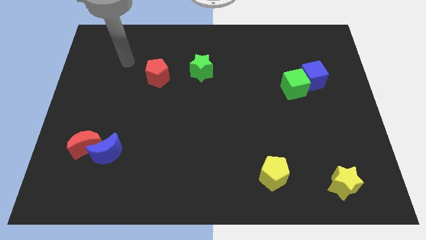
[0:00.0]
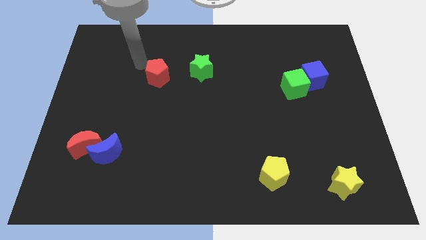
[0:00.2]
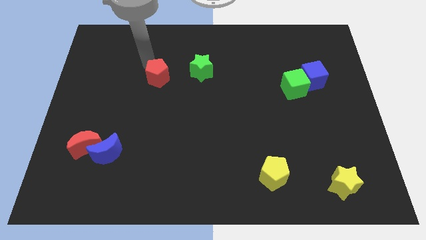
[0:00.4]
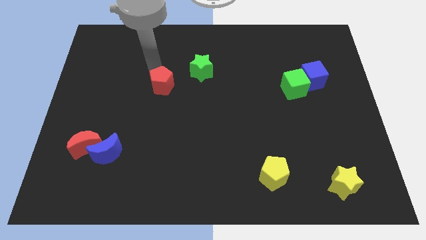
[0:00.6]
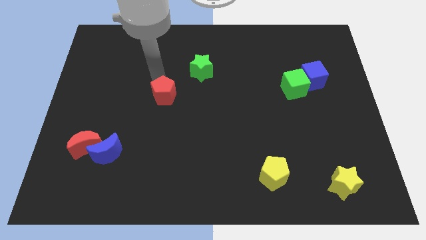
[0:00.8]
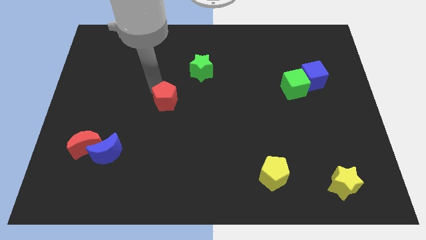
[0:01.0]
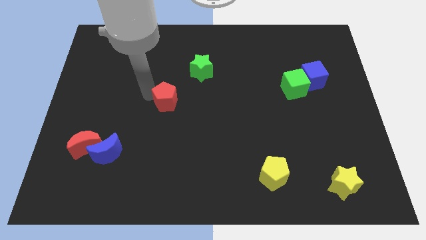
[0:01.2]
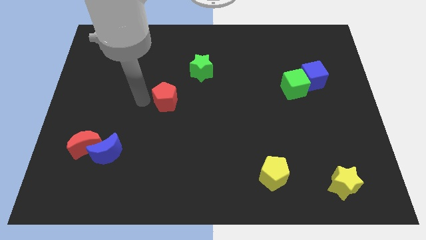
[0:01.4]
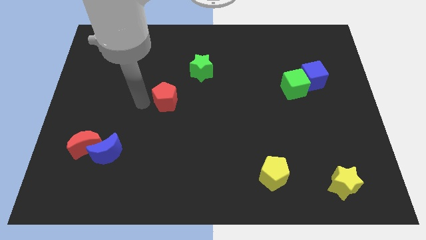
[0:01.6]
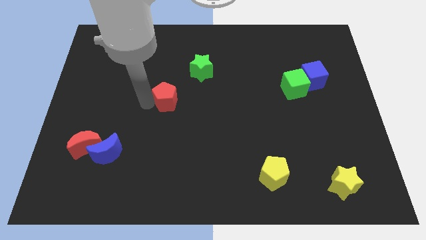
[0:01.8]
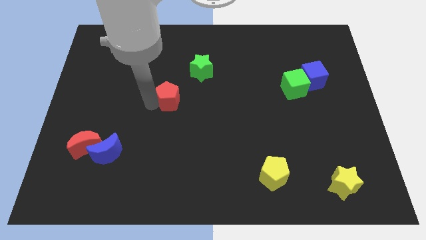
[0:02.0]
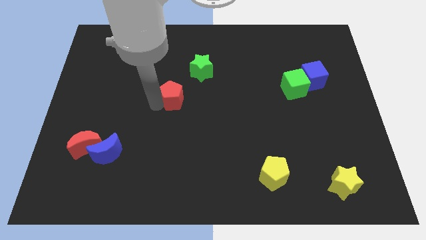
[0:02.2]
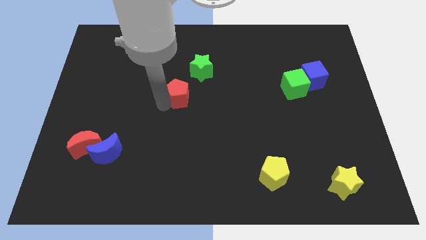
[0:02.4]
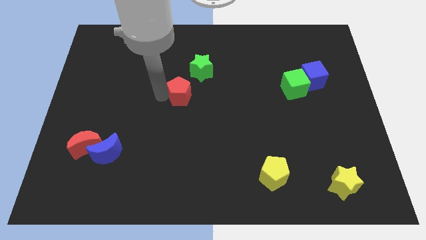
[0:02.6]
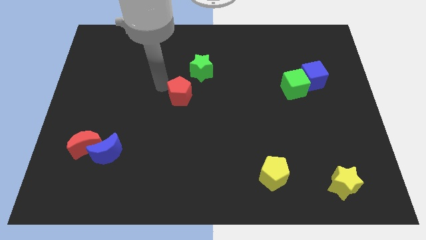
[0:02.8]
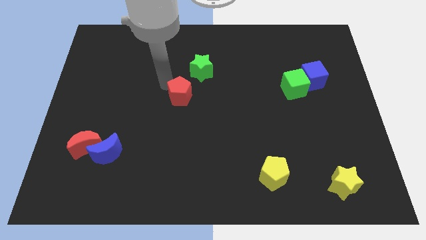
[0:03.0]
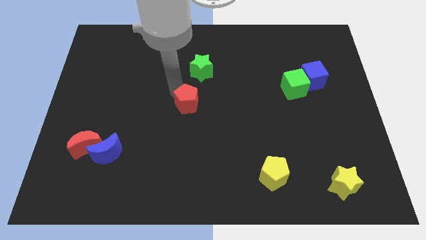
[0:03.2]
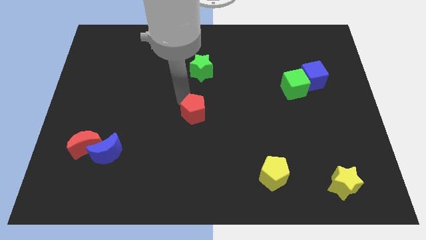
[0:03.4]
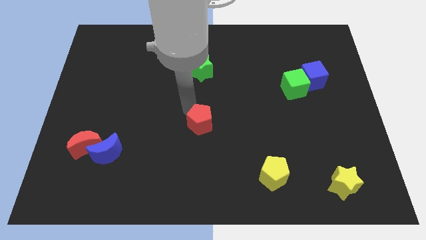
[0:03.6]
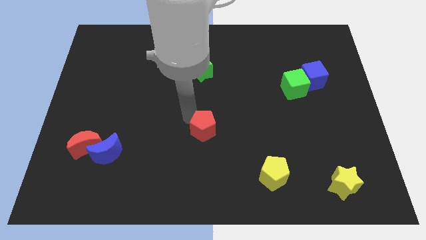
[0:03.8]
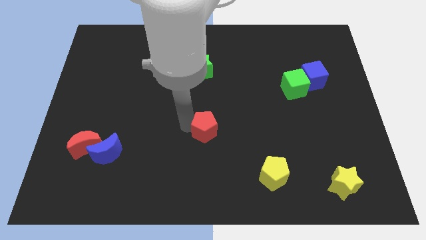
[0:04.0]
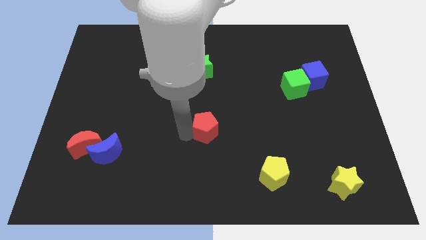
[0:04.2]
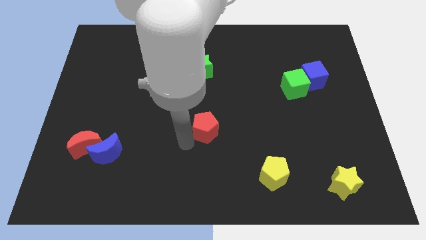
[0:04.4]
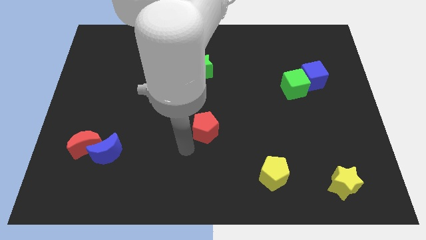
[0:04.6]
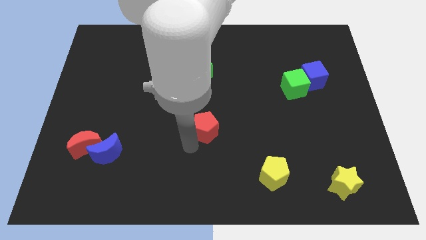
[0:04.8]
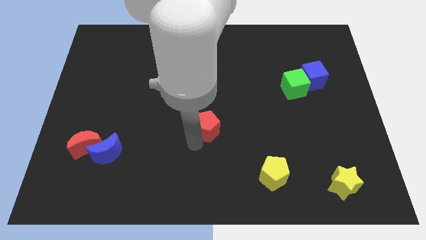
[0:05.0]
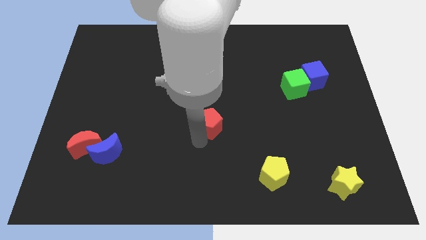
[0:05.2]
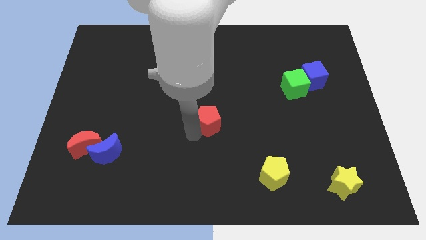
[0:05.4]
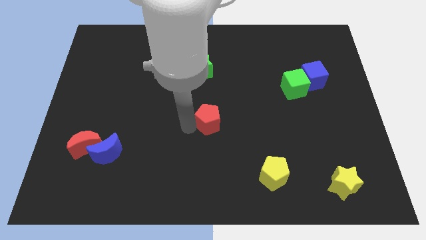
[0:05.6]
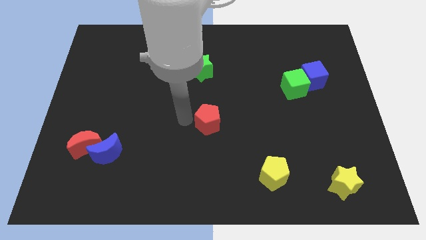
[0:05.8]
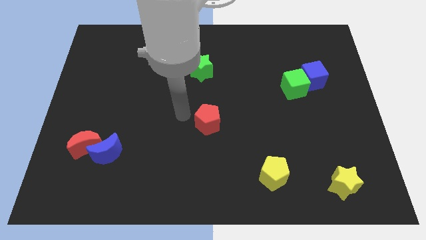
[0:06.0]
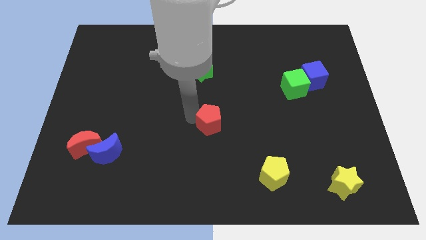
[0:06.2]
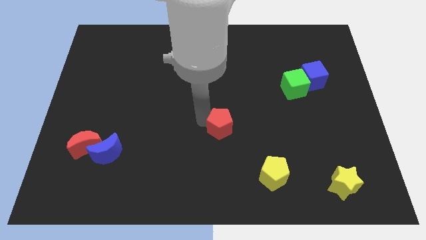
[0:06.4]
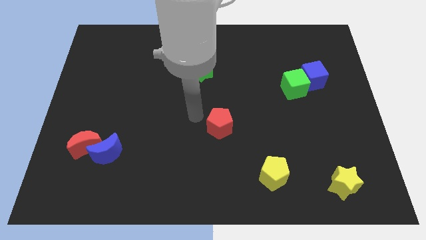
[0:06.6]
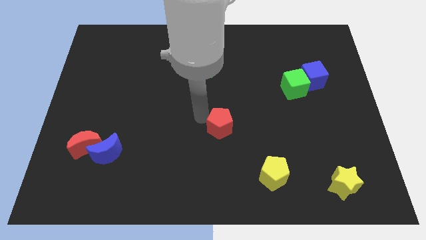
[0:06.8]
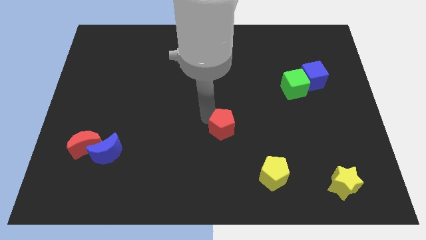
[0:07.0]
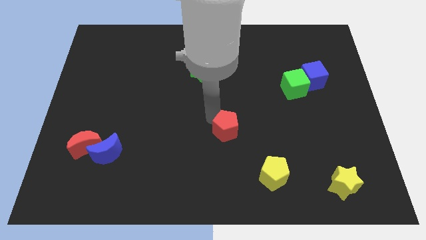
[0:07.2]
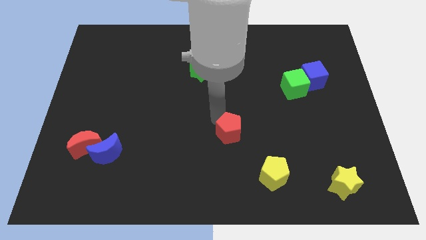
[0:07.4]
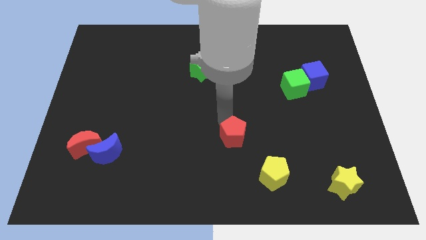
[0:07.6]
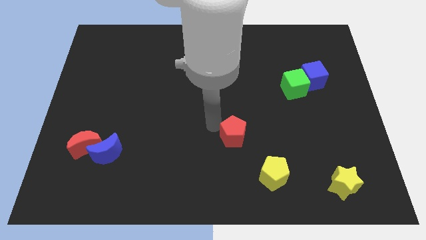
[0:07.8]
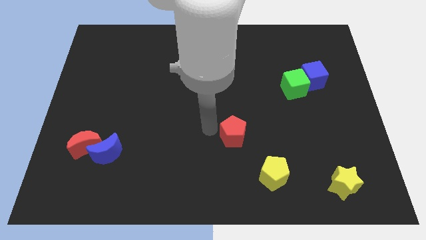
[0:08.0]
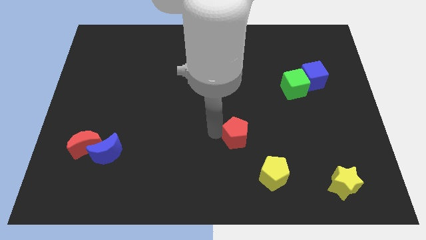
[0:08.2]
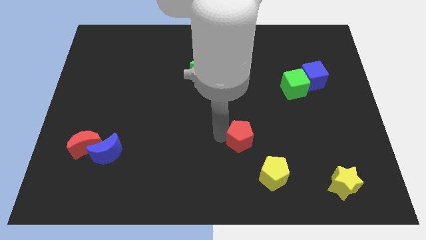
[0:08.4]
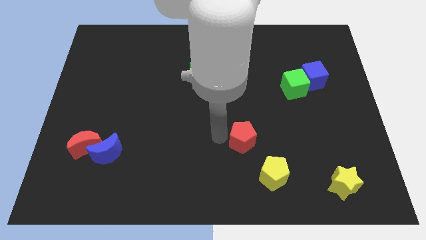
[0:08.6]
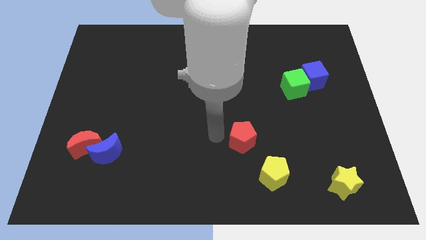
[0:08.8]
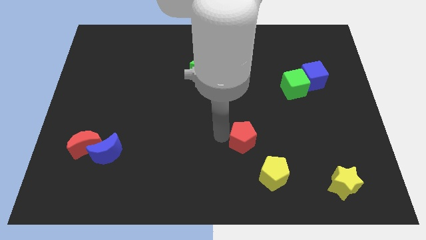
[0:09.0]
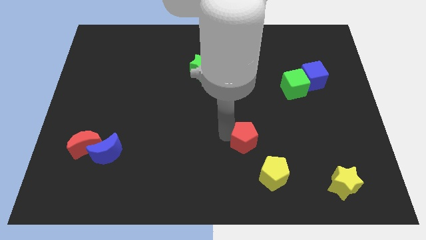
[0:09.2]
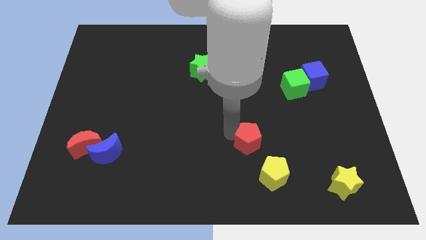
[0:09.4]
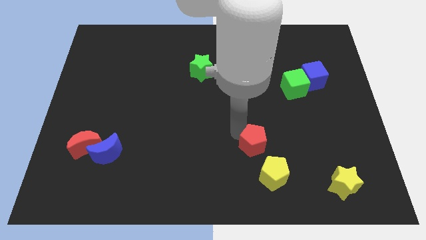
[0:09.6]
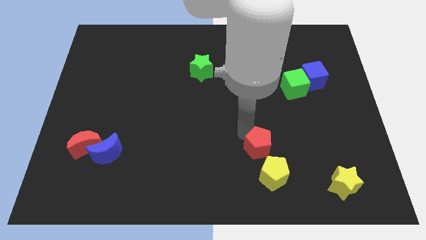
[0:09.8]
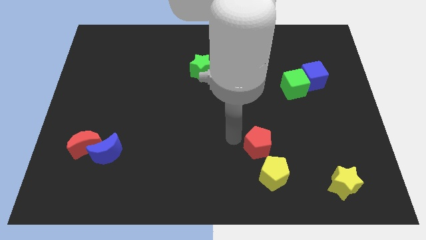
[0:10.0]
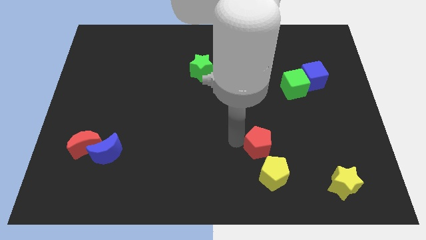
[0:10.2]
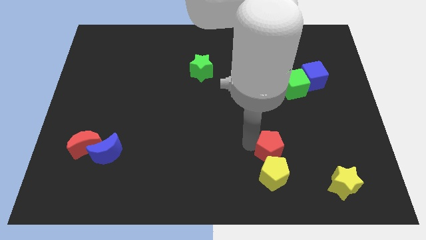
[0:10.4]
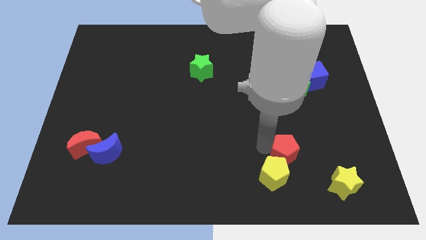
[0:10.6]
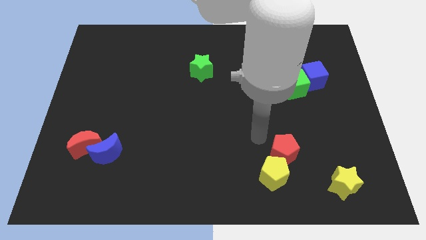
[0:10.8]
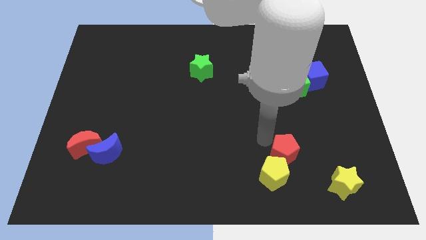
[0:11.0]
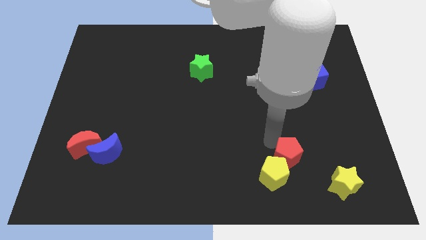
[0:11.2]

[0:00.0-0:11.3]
put the red pentagon to the right of the yellow pentagon
